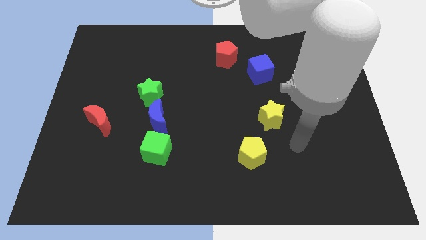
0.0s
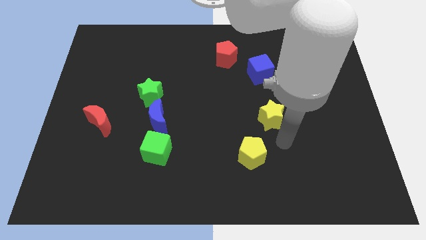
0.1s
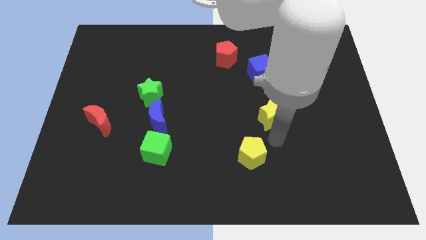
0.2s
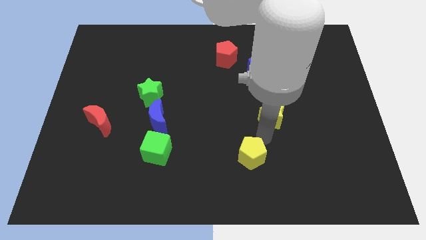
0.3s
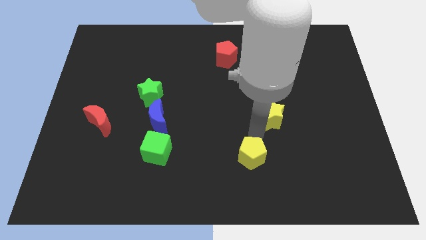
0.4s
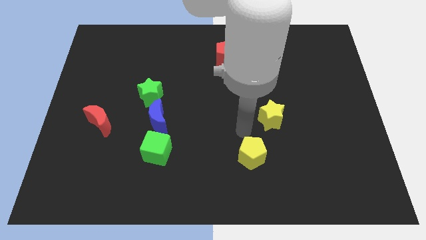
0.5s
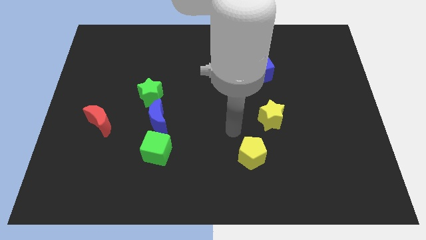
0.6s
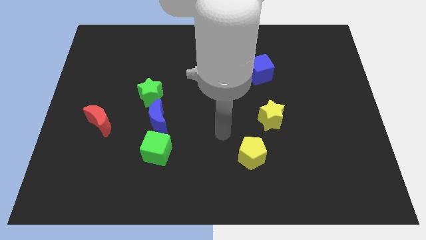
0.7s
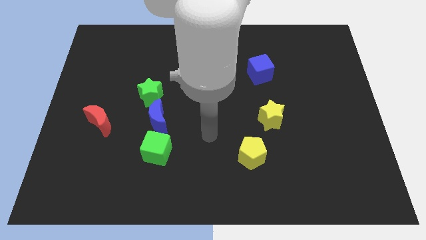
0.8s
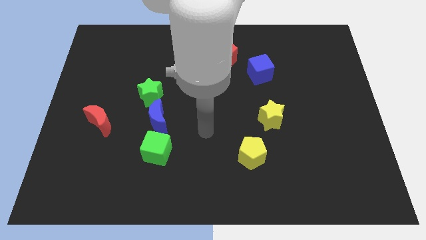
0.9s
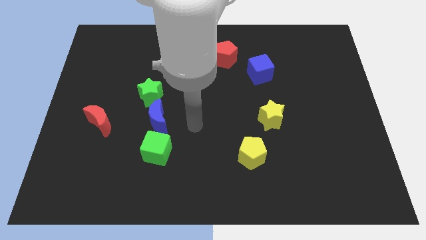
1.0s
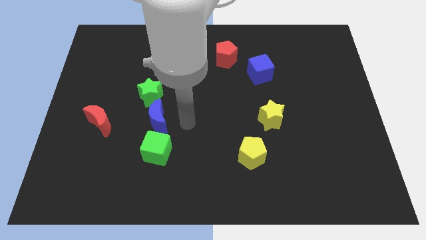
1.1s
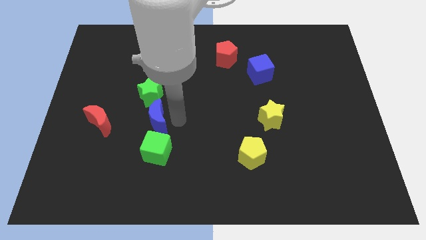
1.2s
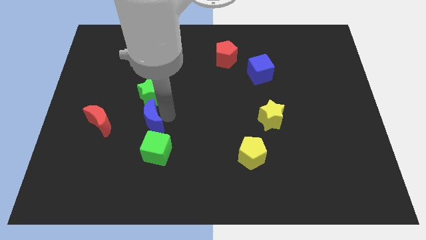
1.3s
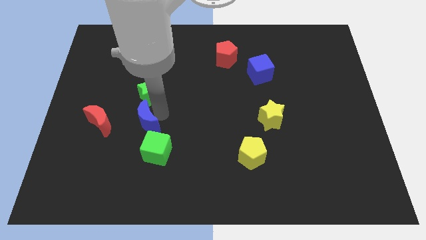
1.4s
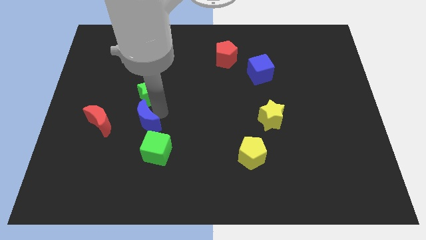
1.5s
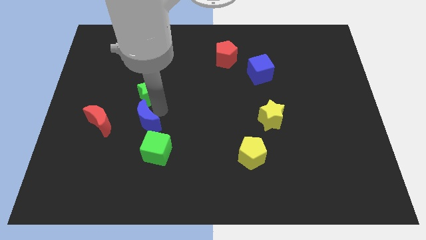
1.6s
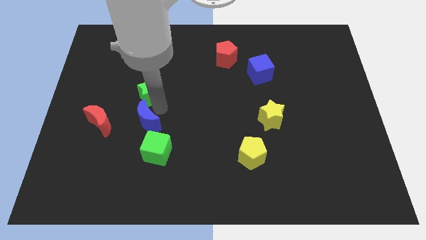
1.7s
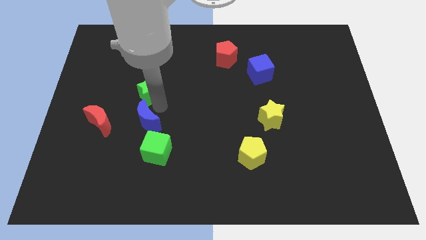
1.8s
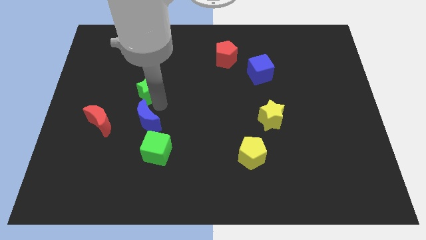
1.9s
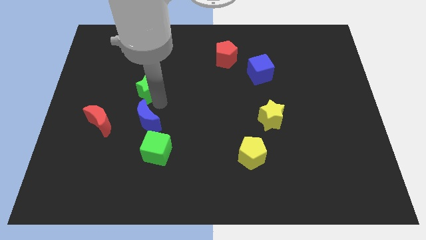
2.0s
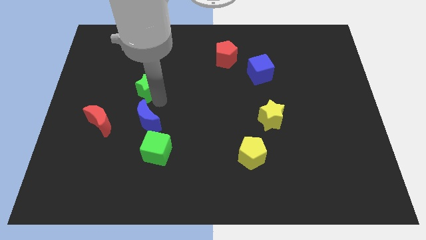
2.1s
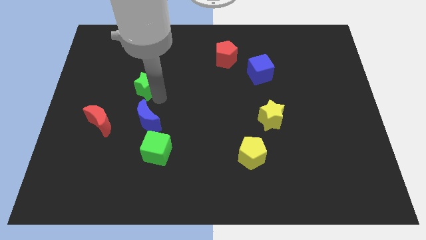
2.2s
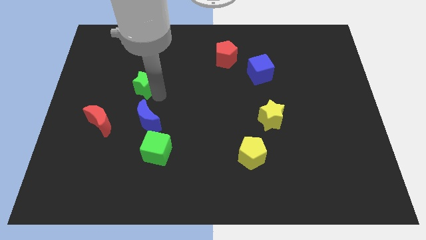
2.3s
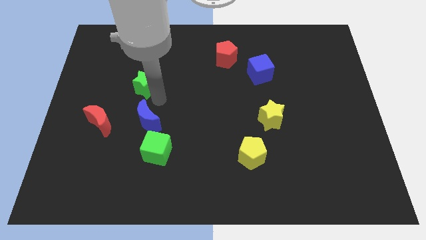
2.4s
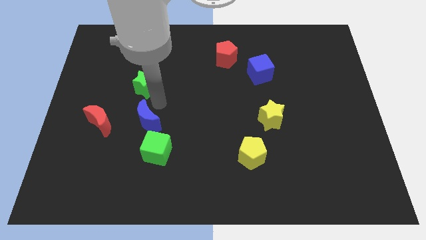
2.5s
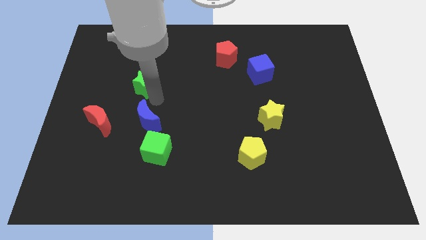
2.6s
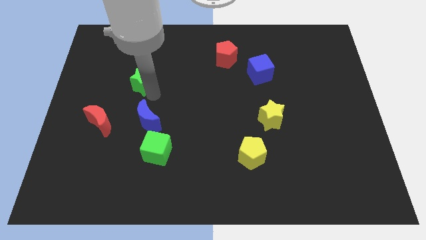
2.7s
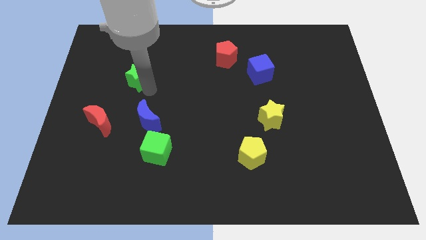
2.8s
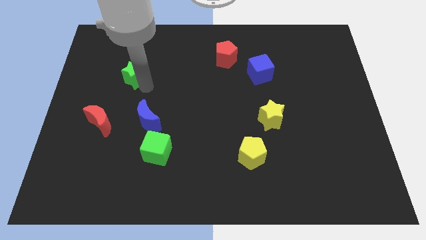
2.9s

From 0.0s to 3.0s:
slightly push the green star up and left diagonally

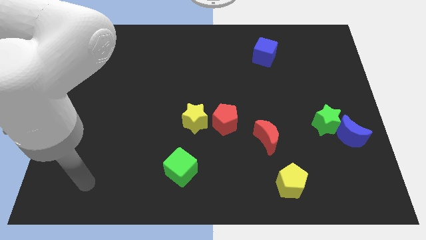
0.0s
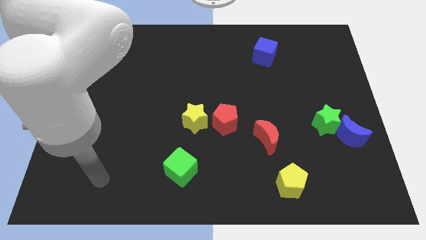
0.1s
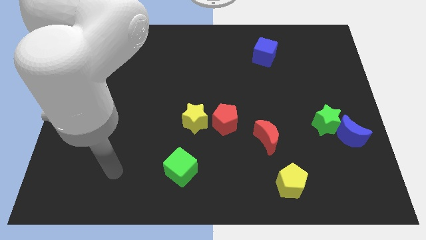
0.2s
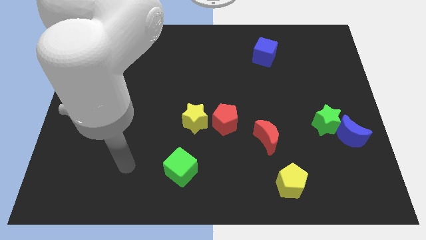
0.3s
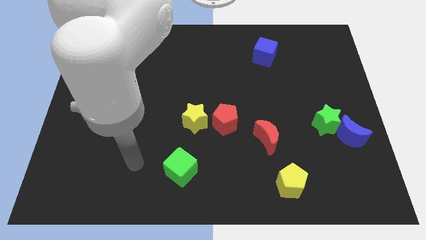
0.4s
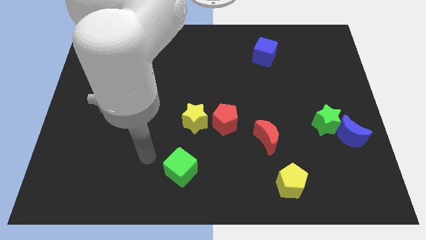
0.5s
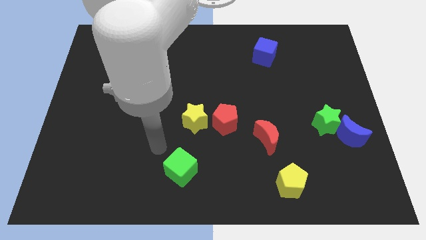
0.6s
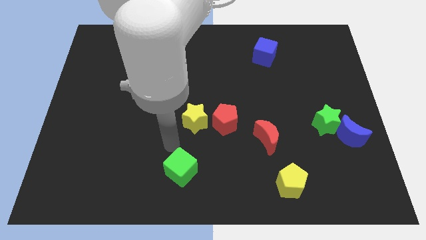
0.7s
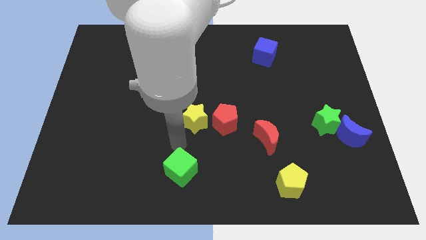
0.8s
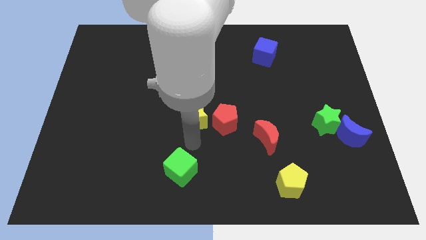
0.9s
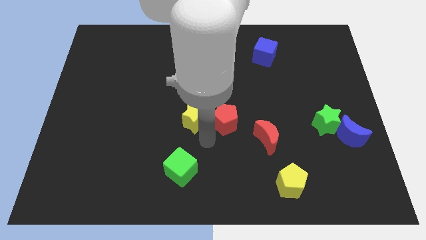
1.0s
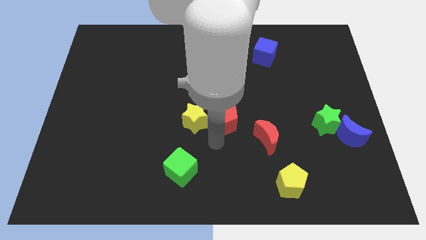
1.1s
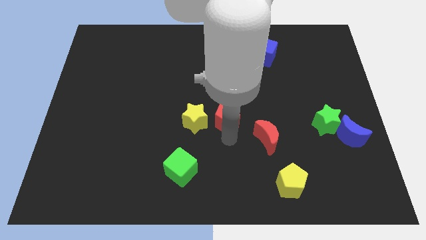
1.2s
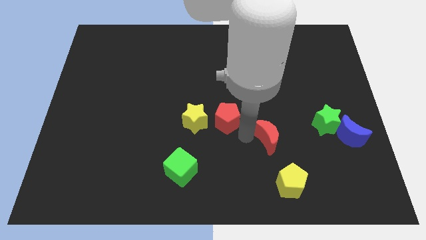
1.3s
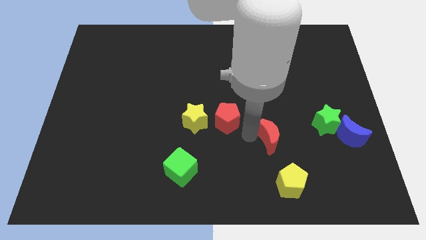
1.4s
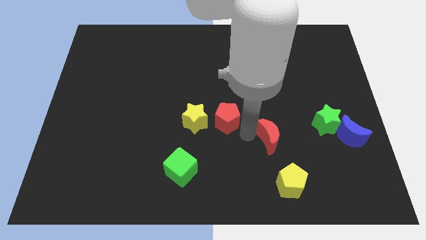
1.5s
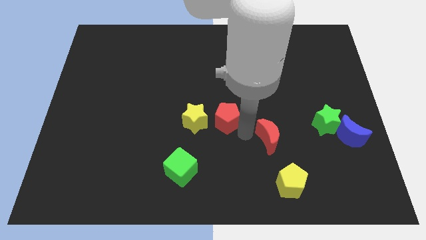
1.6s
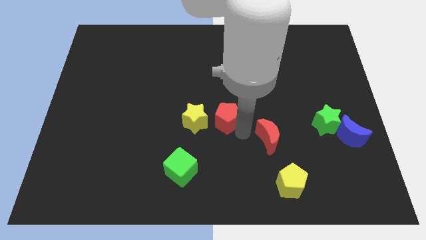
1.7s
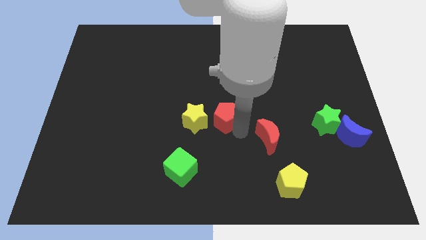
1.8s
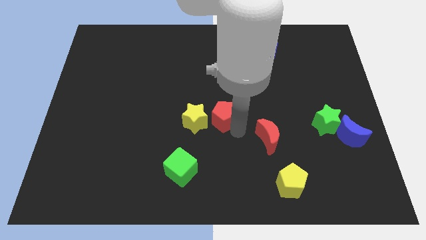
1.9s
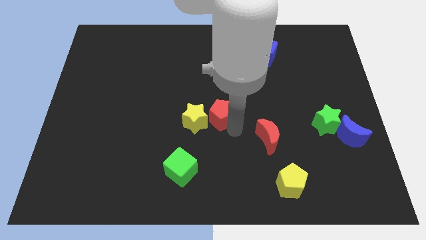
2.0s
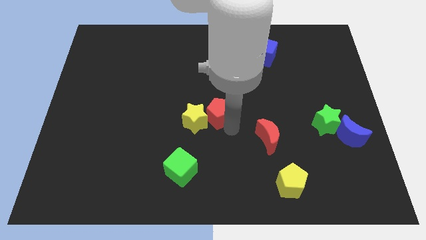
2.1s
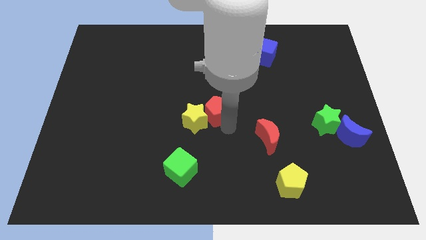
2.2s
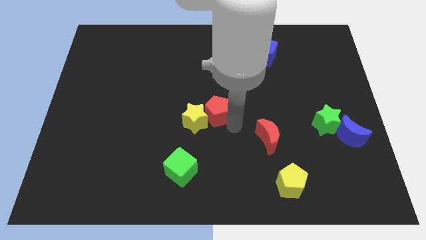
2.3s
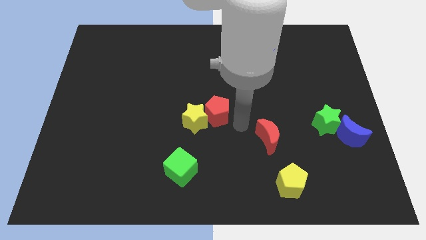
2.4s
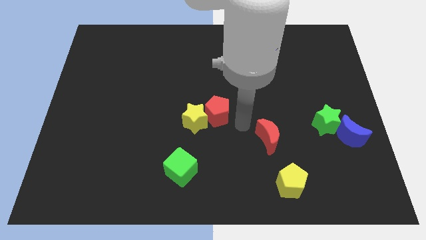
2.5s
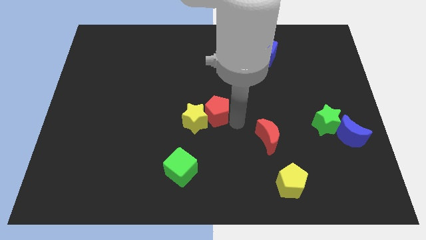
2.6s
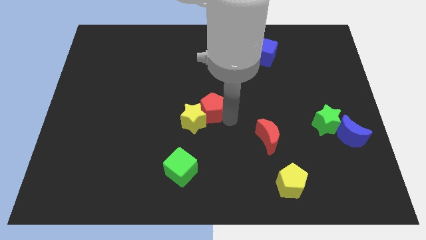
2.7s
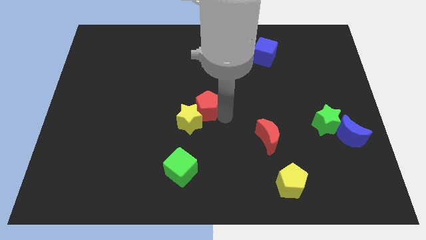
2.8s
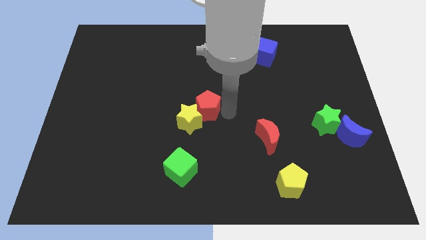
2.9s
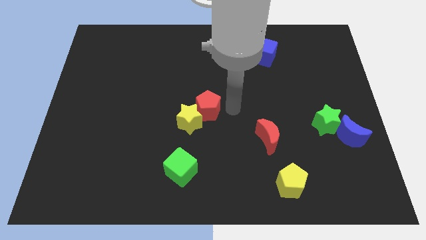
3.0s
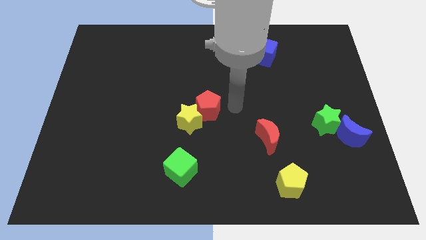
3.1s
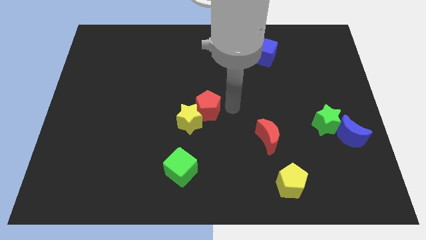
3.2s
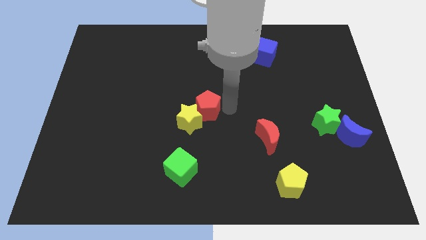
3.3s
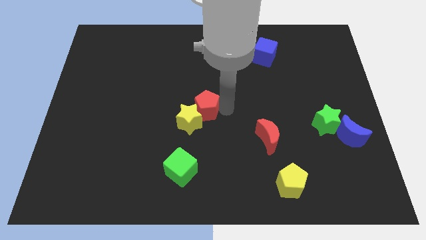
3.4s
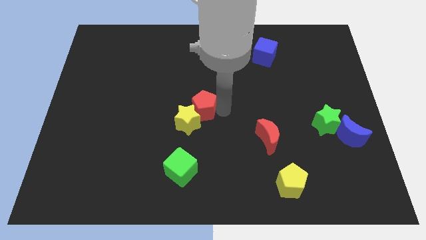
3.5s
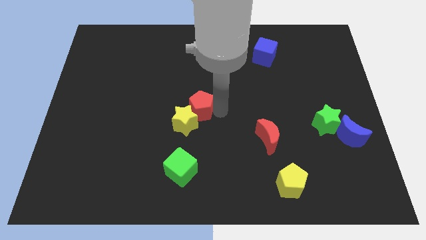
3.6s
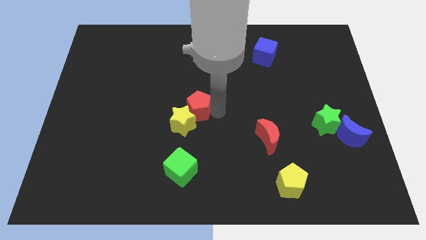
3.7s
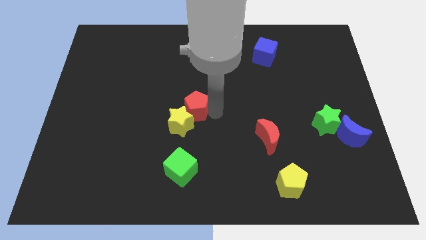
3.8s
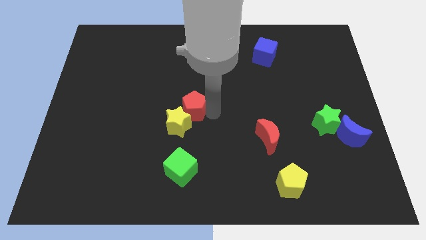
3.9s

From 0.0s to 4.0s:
push the red pentagon to the left slightly

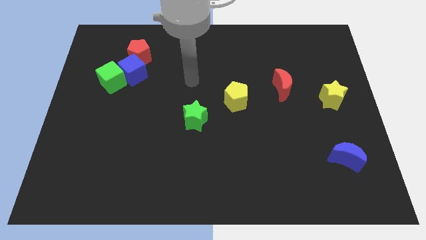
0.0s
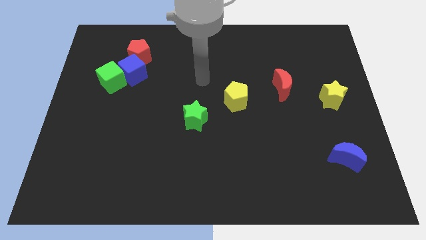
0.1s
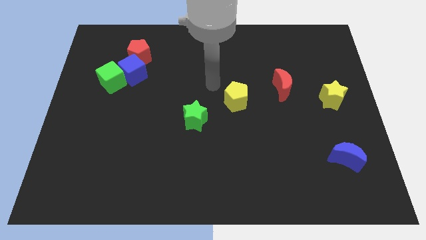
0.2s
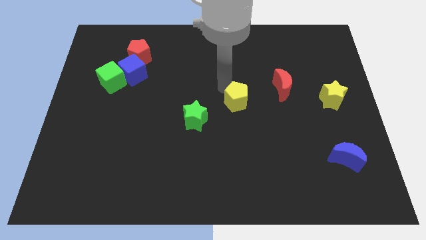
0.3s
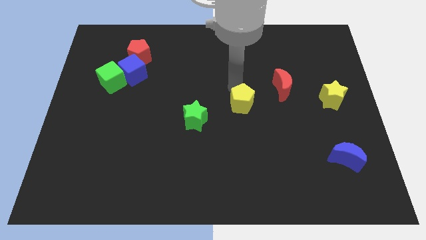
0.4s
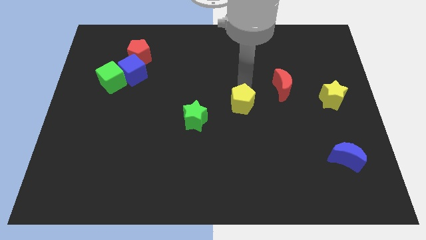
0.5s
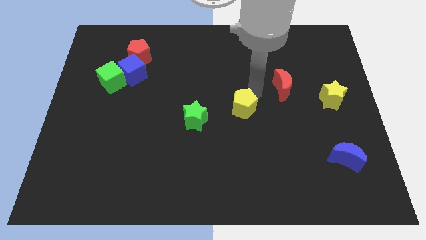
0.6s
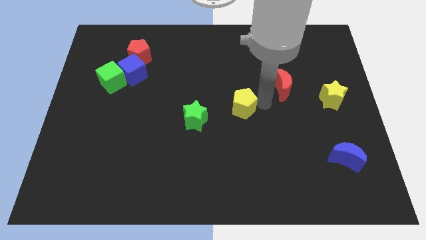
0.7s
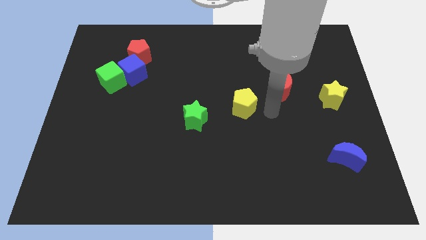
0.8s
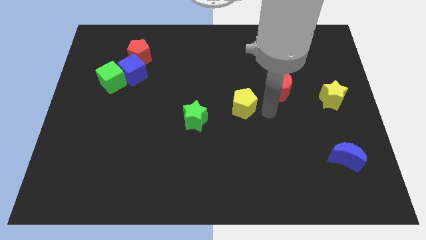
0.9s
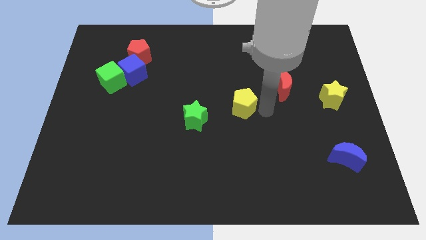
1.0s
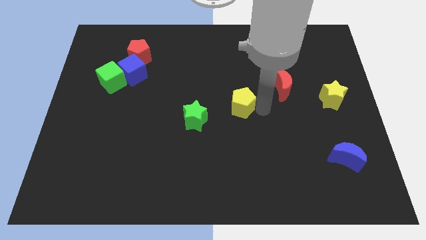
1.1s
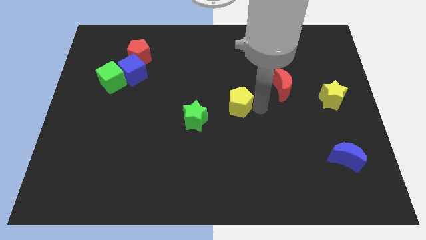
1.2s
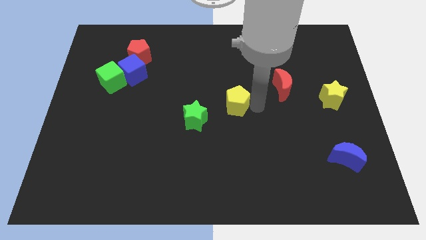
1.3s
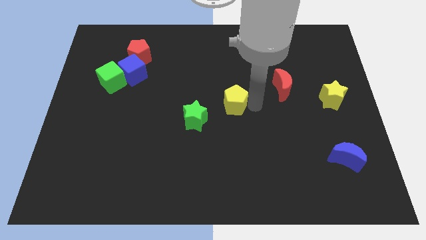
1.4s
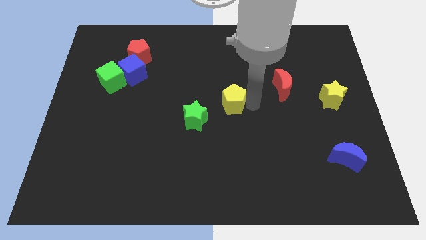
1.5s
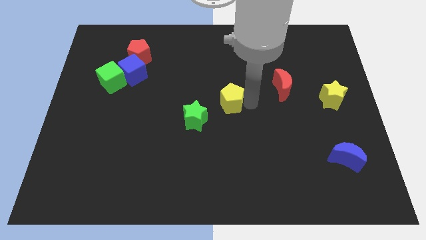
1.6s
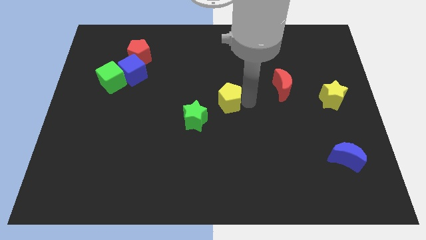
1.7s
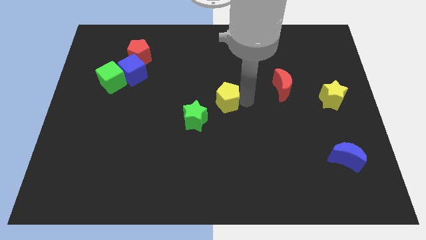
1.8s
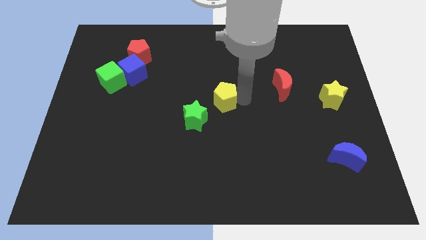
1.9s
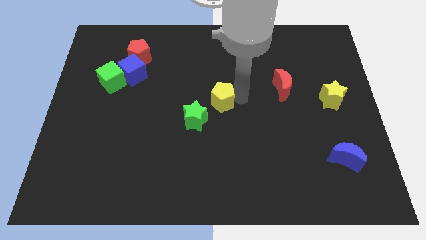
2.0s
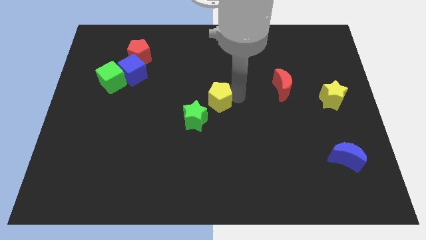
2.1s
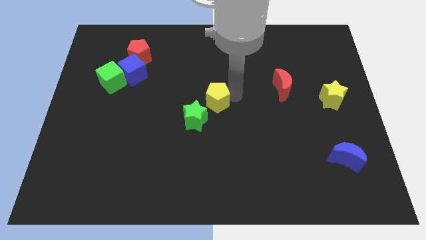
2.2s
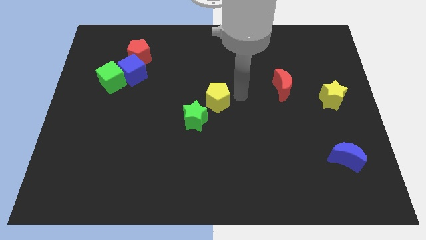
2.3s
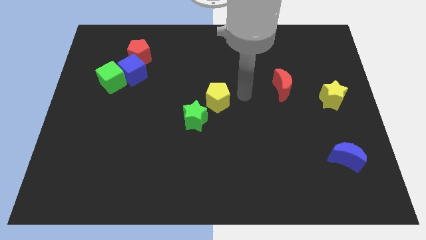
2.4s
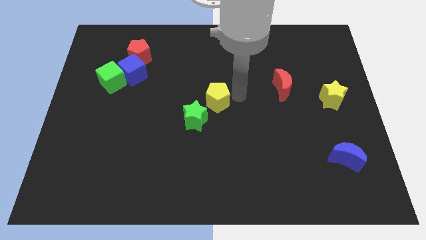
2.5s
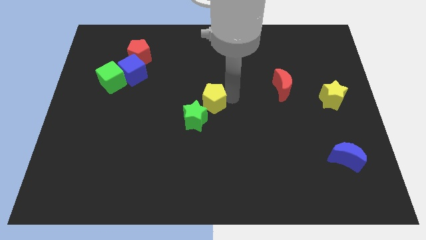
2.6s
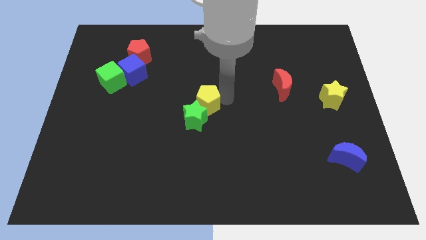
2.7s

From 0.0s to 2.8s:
move the yellow pentagon left a little
